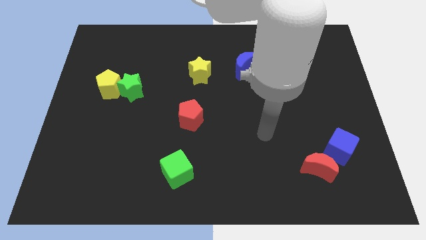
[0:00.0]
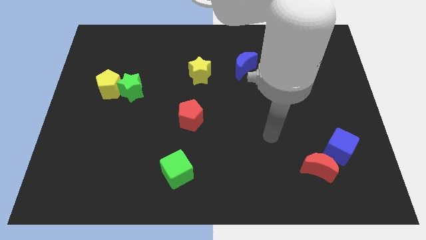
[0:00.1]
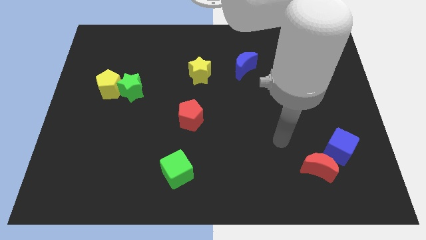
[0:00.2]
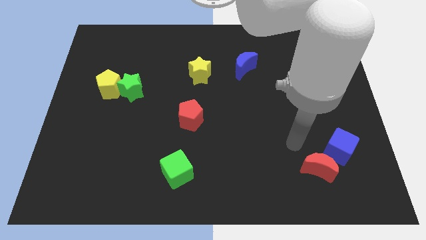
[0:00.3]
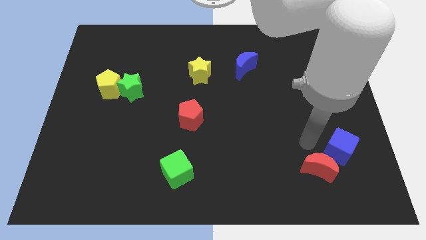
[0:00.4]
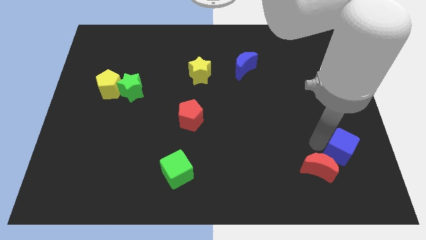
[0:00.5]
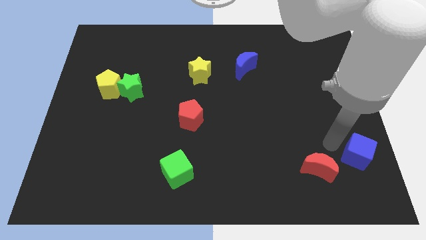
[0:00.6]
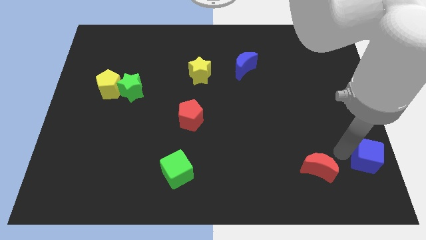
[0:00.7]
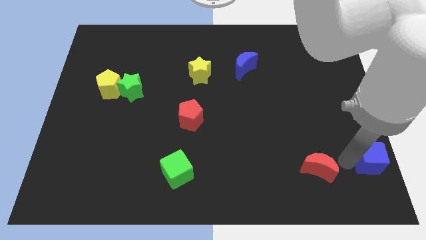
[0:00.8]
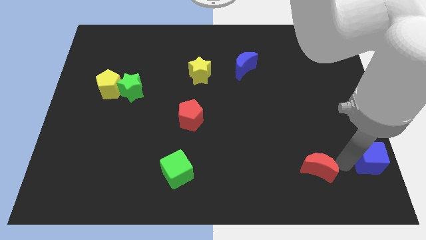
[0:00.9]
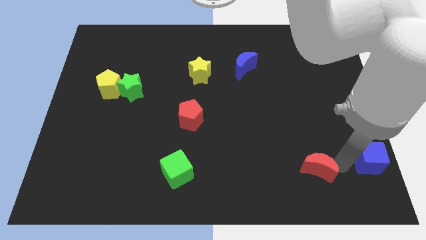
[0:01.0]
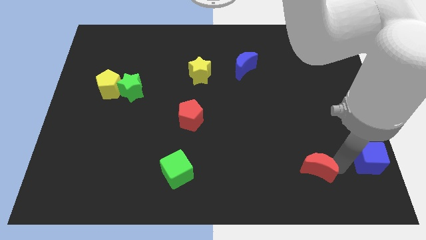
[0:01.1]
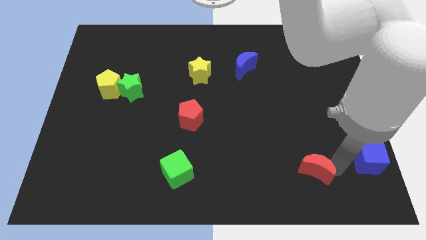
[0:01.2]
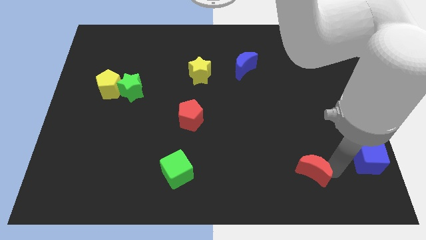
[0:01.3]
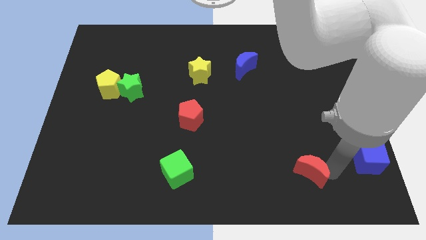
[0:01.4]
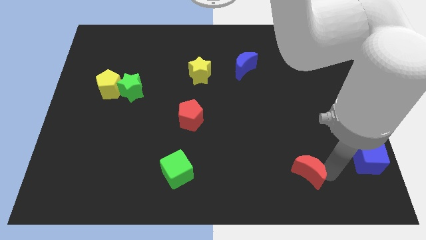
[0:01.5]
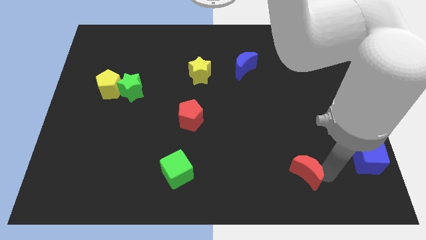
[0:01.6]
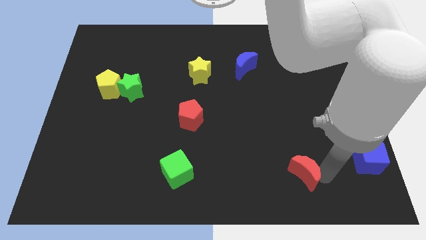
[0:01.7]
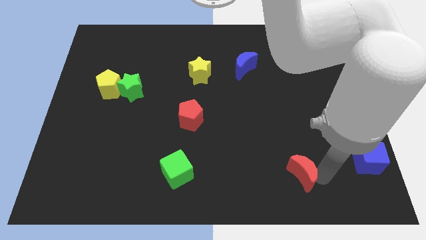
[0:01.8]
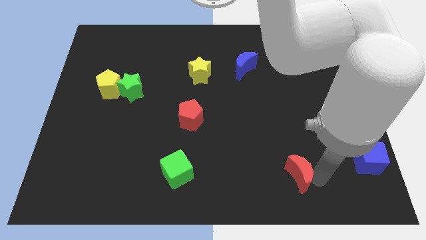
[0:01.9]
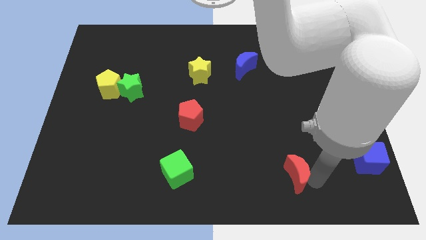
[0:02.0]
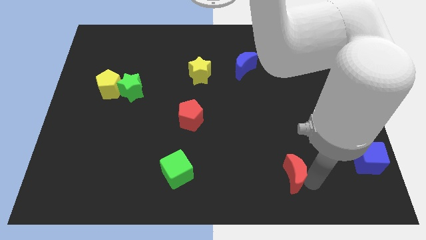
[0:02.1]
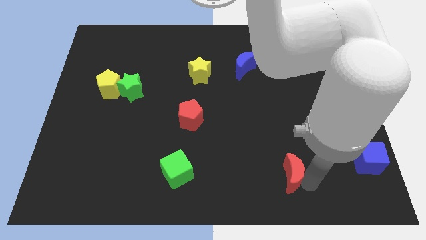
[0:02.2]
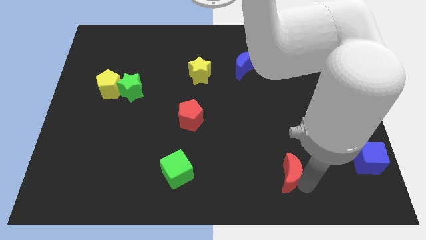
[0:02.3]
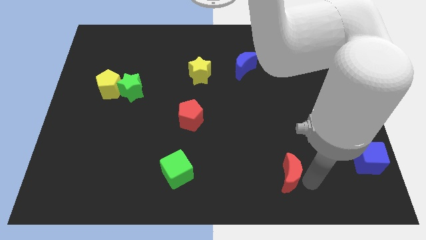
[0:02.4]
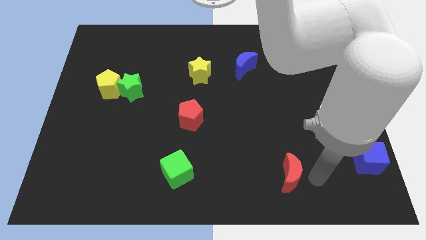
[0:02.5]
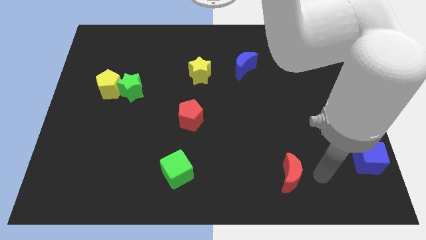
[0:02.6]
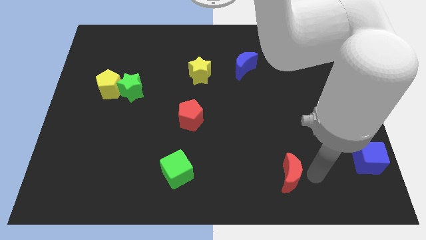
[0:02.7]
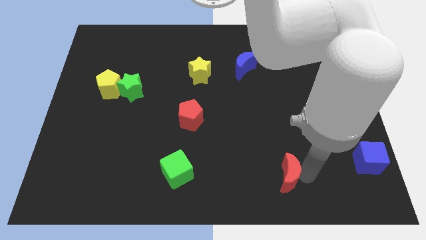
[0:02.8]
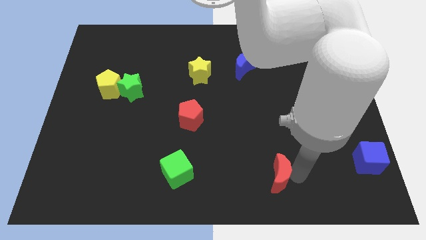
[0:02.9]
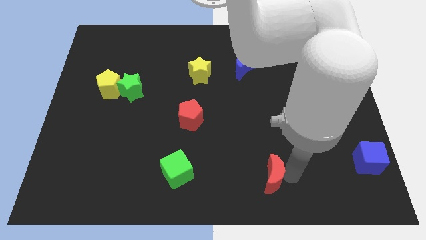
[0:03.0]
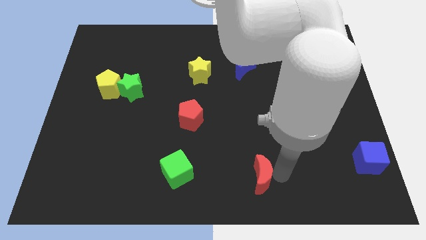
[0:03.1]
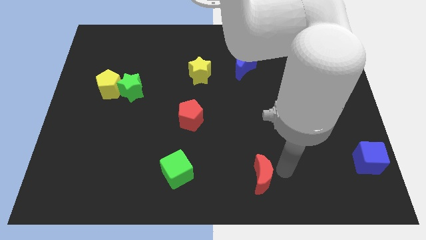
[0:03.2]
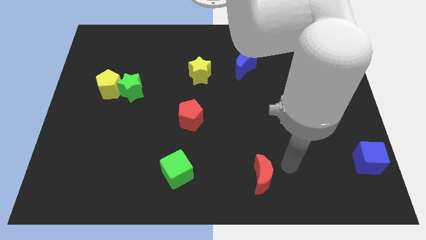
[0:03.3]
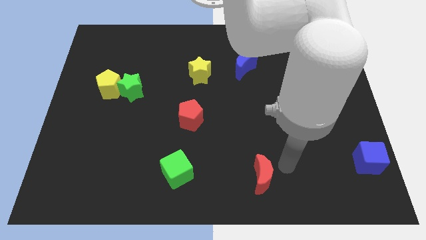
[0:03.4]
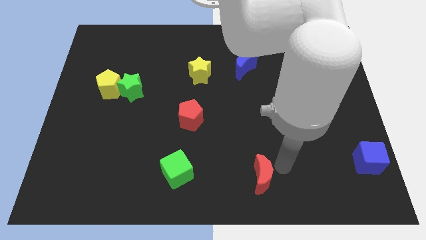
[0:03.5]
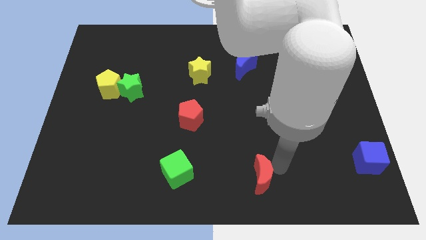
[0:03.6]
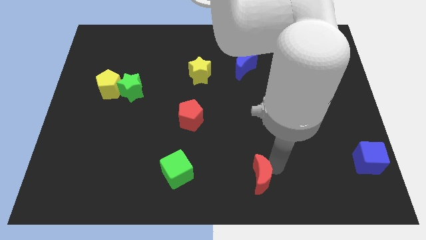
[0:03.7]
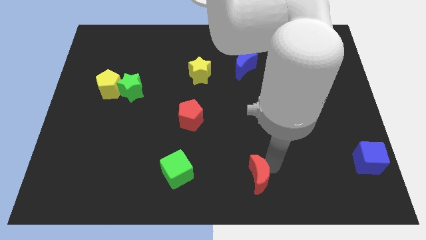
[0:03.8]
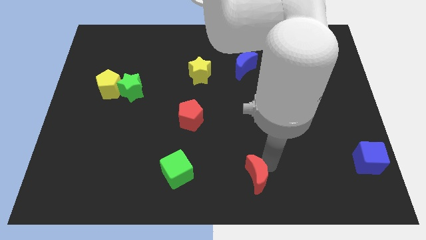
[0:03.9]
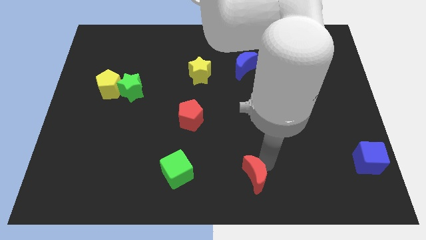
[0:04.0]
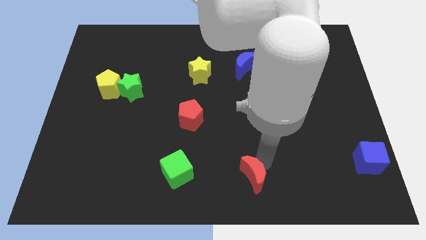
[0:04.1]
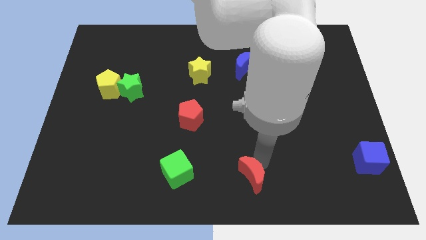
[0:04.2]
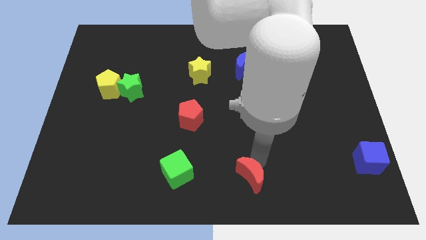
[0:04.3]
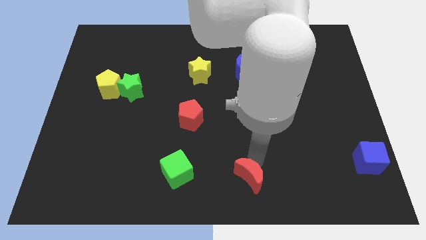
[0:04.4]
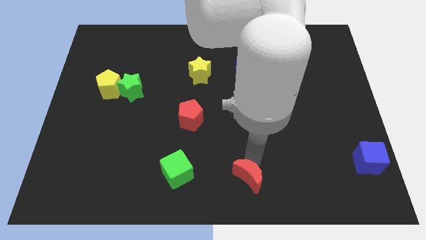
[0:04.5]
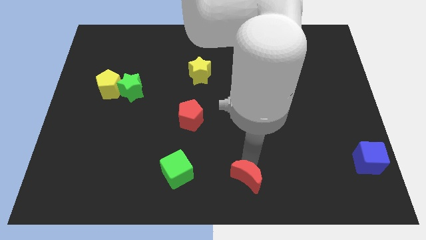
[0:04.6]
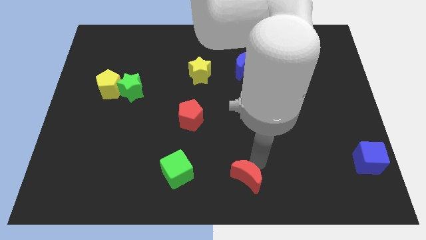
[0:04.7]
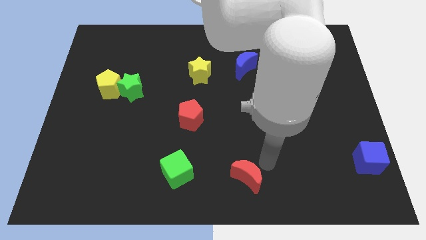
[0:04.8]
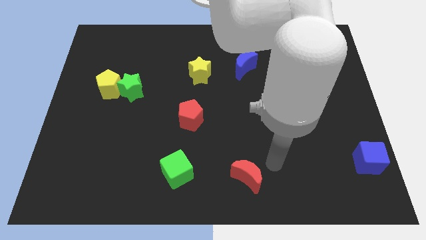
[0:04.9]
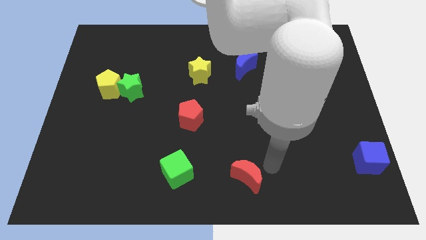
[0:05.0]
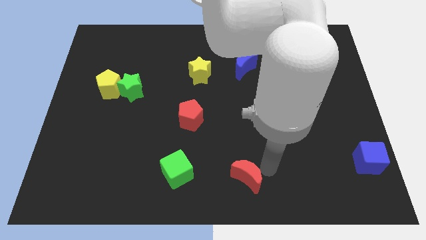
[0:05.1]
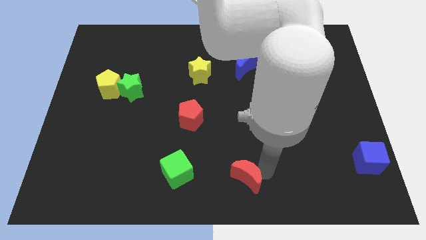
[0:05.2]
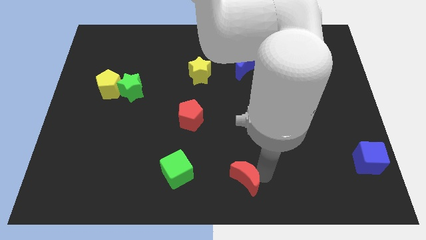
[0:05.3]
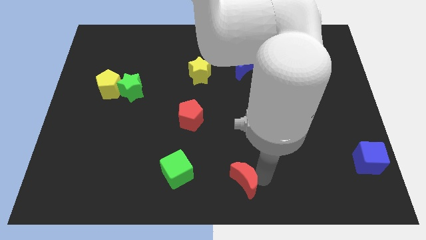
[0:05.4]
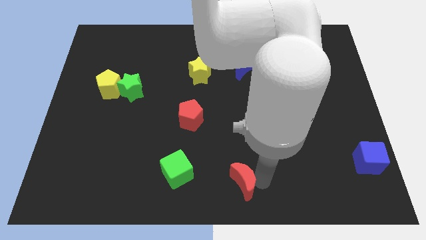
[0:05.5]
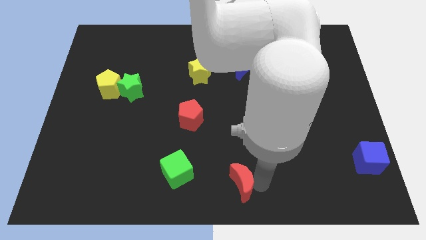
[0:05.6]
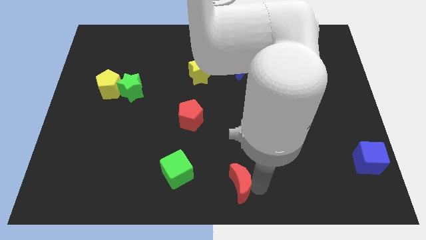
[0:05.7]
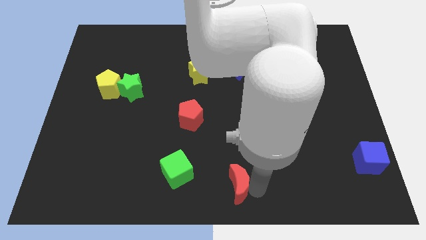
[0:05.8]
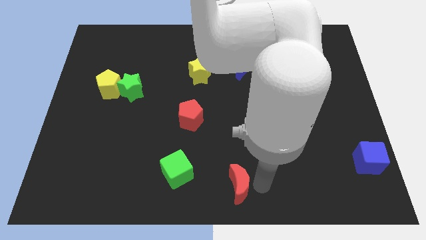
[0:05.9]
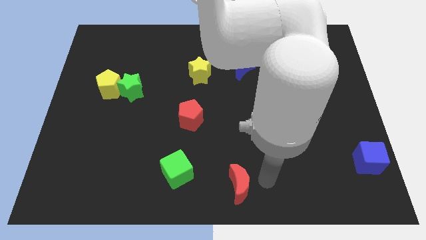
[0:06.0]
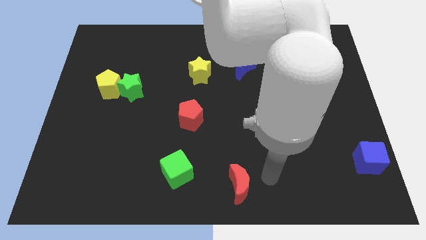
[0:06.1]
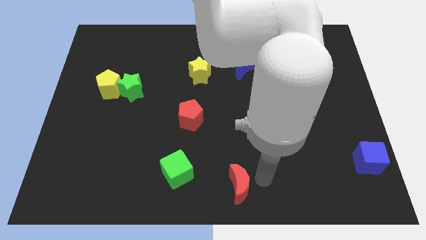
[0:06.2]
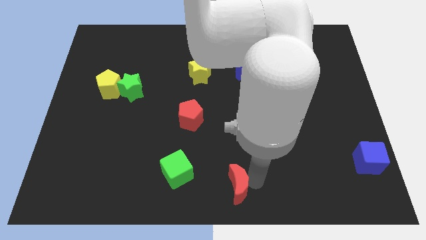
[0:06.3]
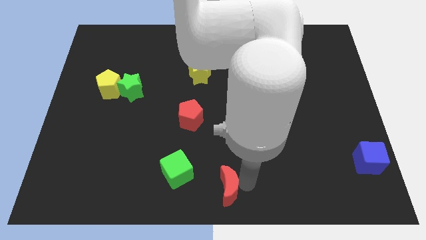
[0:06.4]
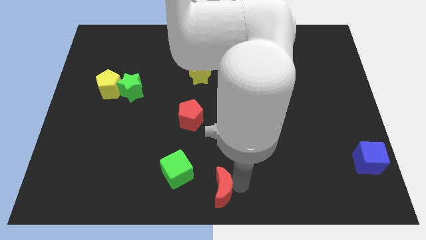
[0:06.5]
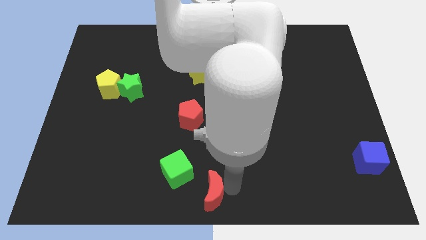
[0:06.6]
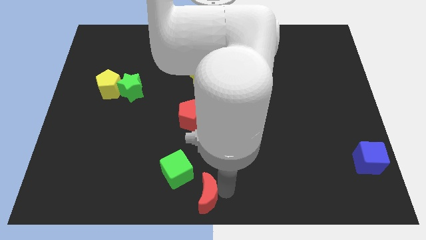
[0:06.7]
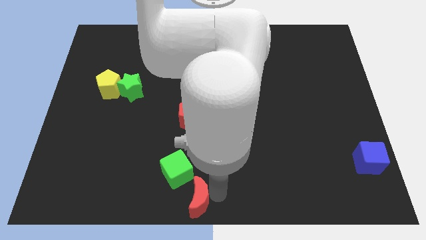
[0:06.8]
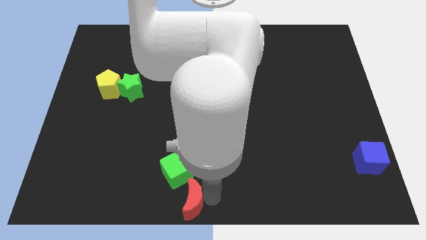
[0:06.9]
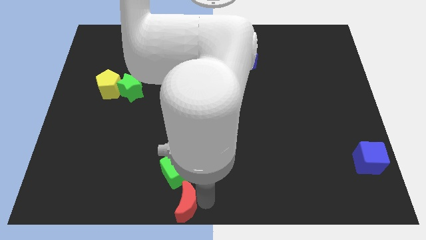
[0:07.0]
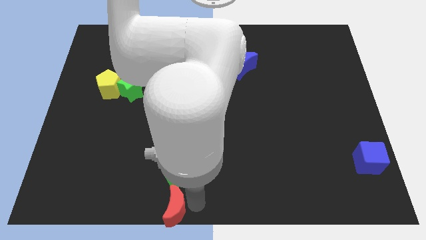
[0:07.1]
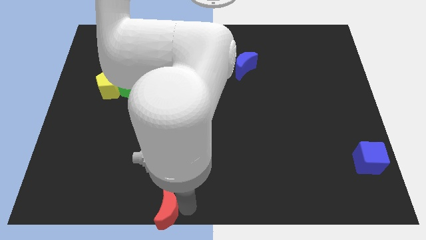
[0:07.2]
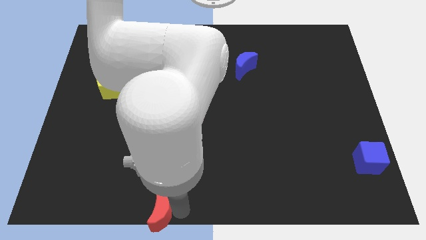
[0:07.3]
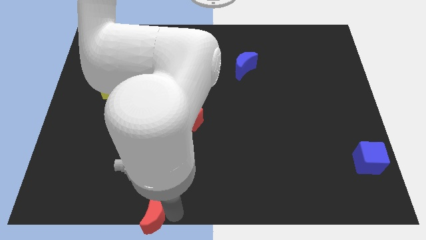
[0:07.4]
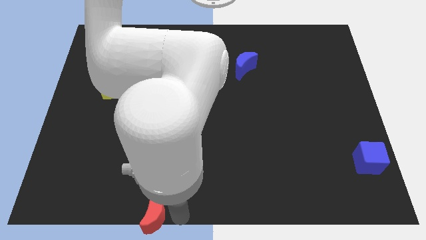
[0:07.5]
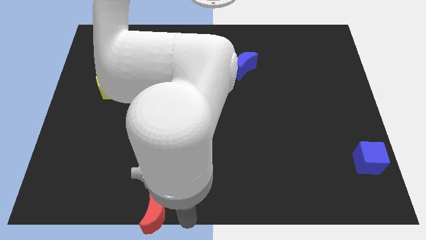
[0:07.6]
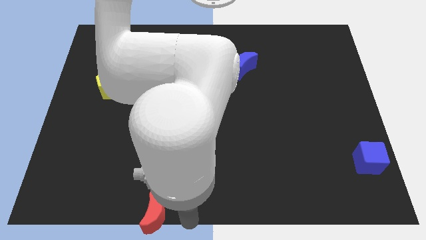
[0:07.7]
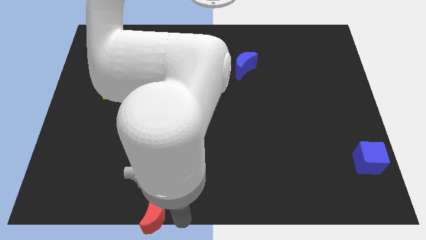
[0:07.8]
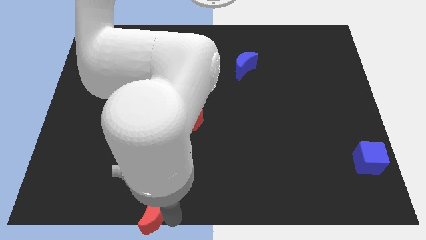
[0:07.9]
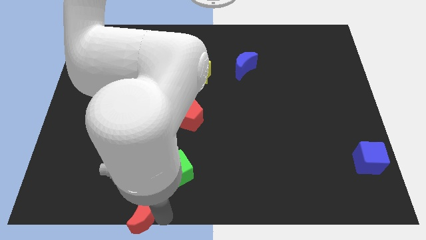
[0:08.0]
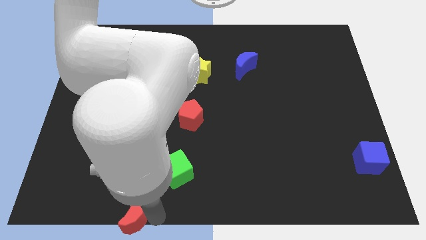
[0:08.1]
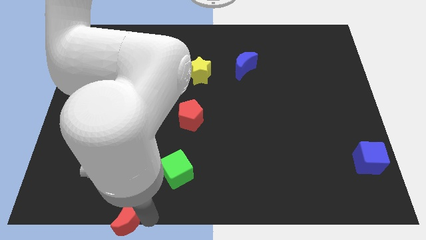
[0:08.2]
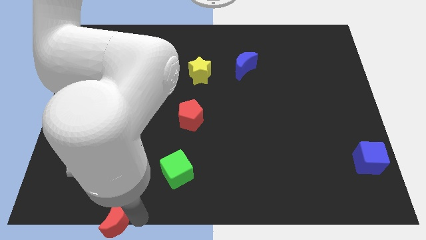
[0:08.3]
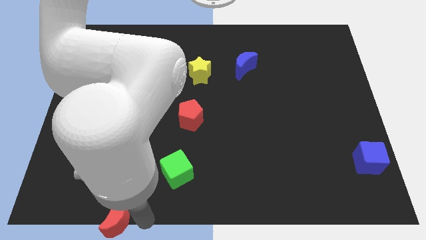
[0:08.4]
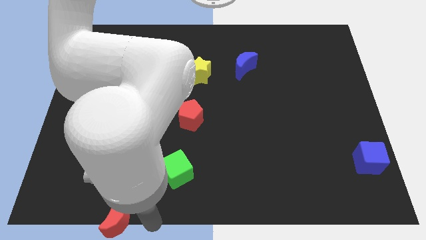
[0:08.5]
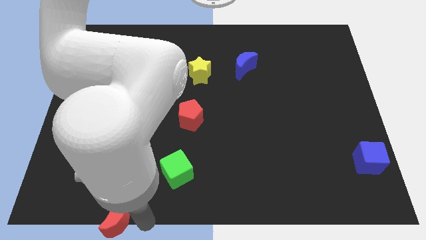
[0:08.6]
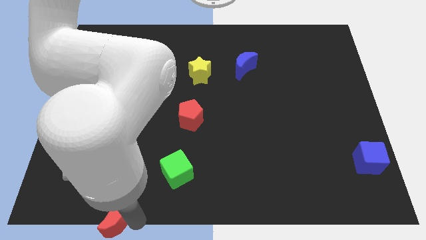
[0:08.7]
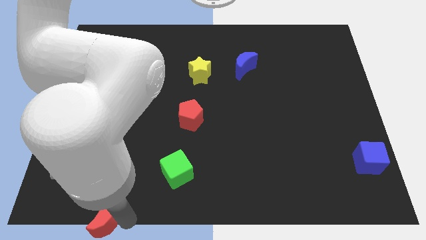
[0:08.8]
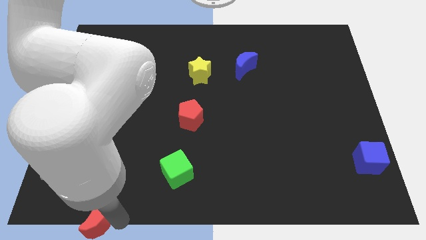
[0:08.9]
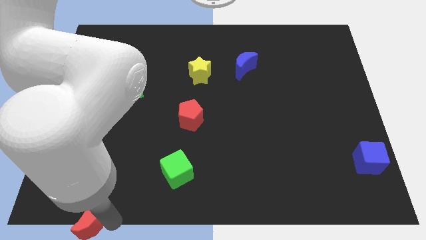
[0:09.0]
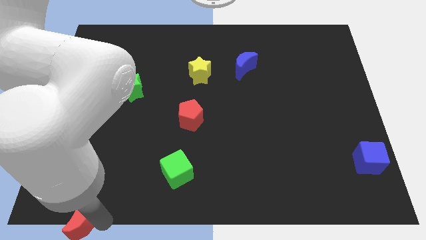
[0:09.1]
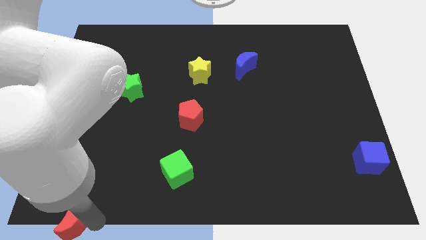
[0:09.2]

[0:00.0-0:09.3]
push the red moon to the bottom left of the board
